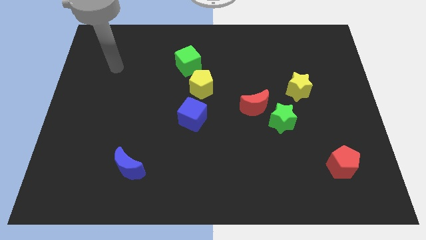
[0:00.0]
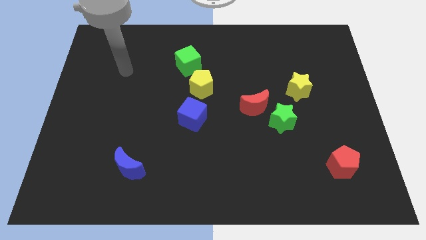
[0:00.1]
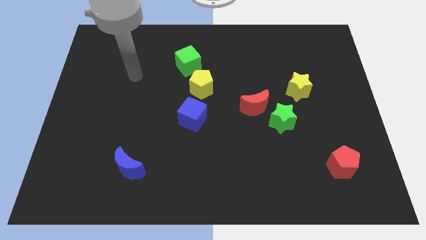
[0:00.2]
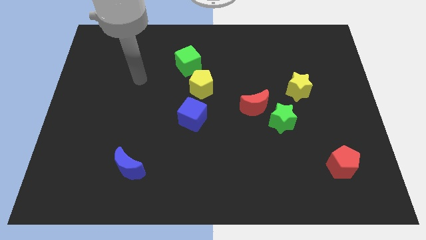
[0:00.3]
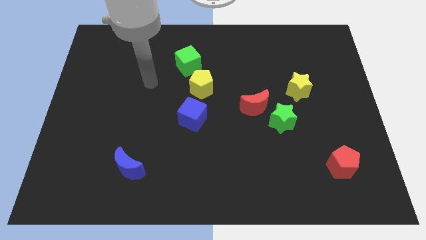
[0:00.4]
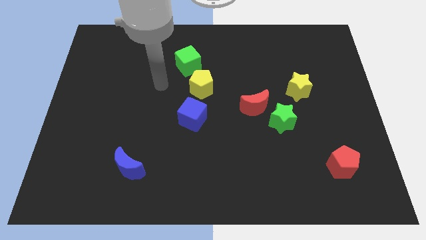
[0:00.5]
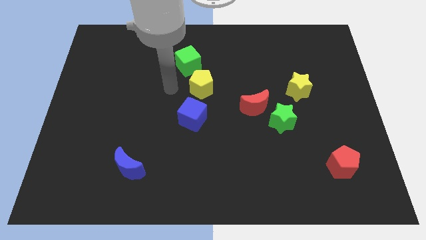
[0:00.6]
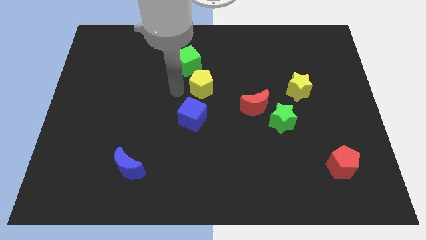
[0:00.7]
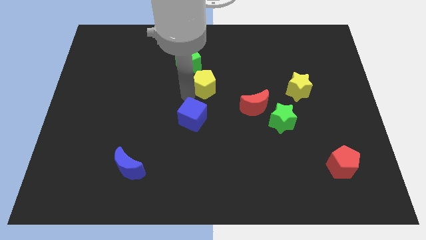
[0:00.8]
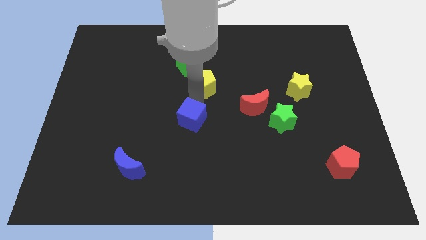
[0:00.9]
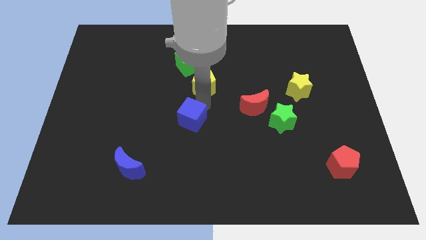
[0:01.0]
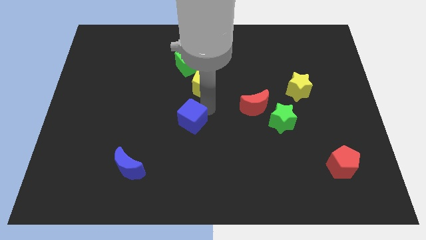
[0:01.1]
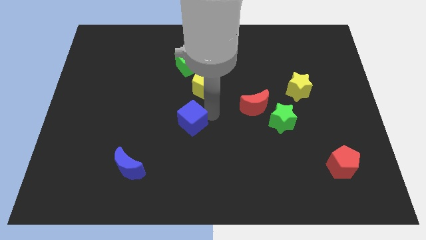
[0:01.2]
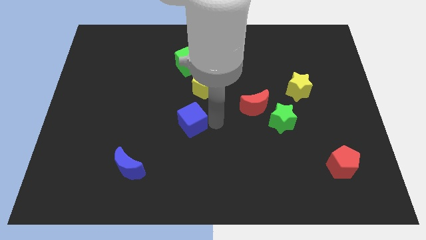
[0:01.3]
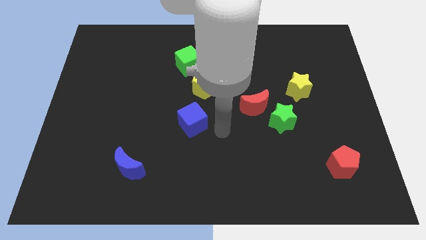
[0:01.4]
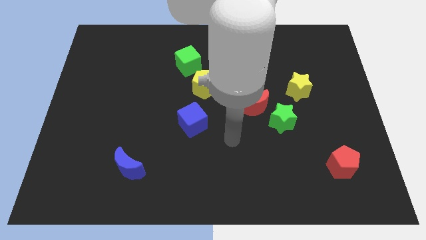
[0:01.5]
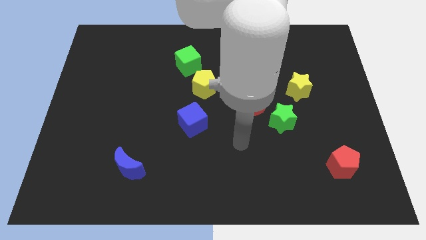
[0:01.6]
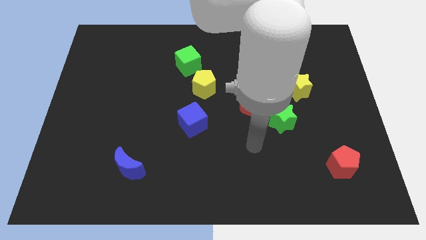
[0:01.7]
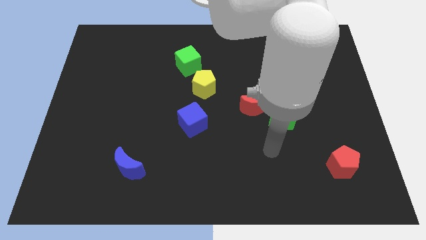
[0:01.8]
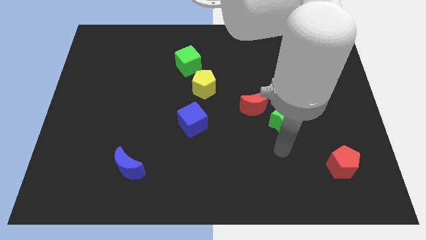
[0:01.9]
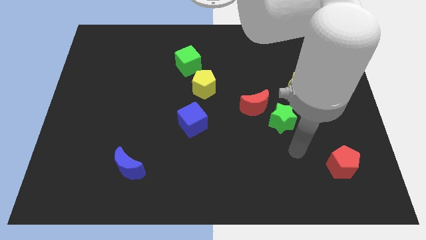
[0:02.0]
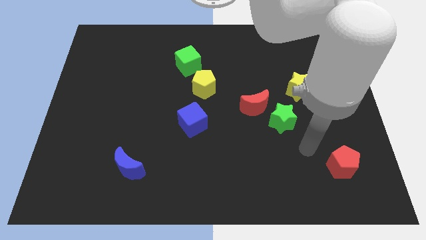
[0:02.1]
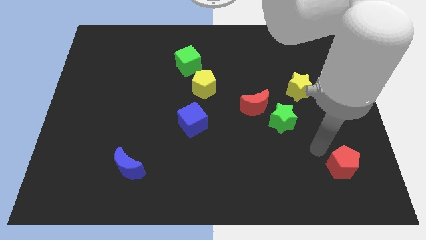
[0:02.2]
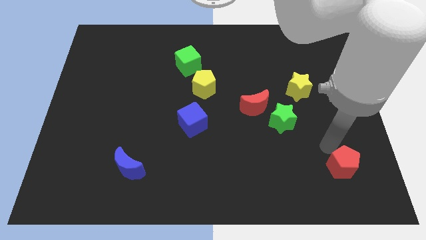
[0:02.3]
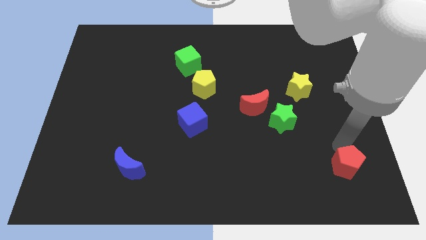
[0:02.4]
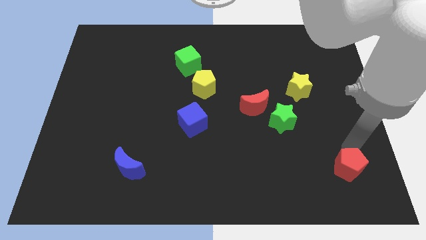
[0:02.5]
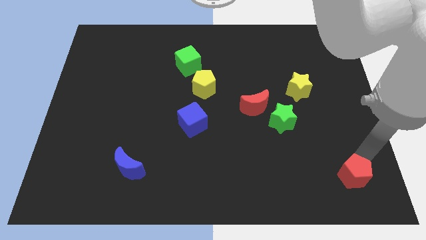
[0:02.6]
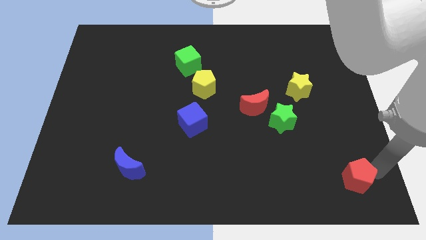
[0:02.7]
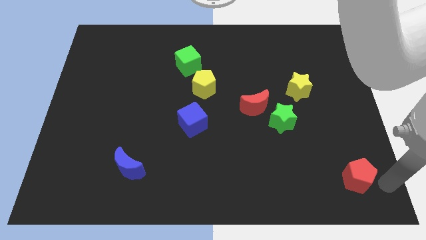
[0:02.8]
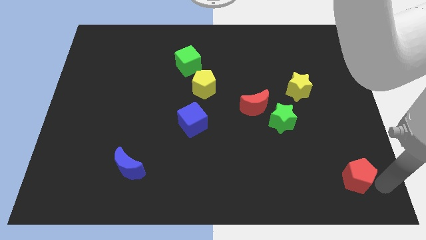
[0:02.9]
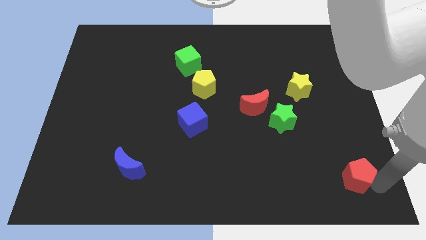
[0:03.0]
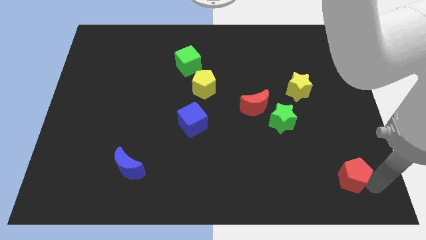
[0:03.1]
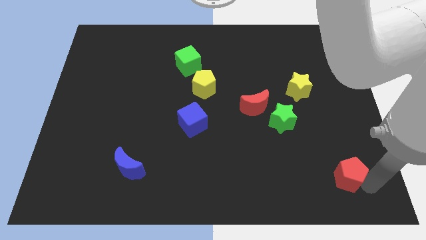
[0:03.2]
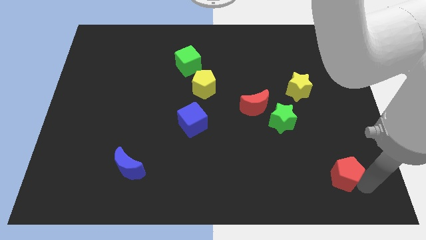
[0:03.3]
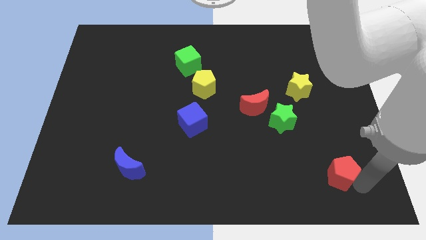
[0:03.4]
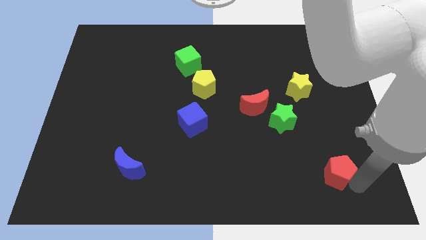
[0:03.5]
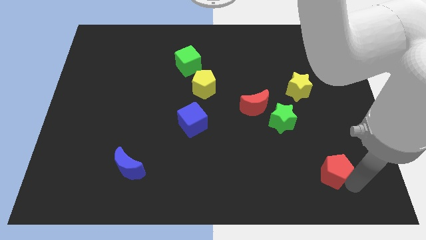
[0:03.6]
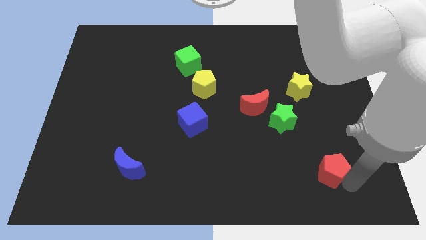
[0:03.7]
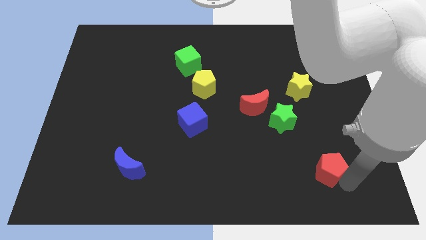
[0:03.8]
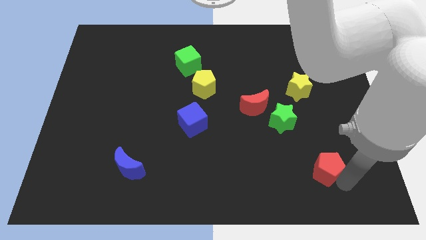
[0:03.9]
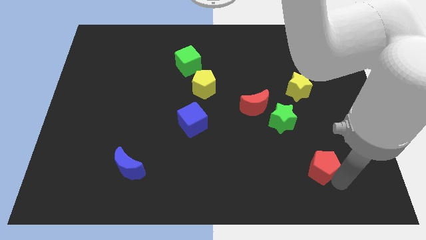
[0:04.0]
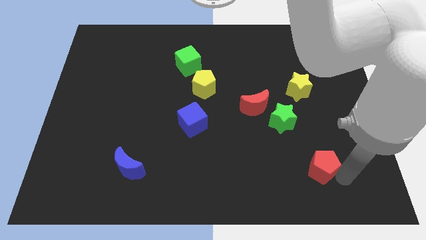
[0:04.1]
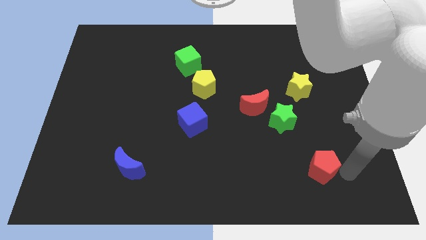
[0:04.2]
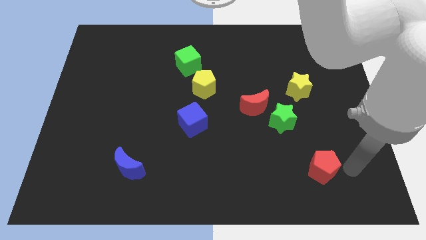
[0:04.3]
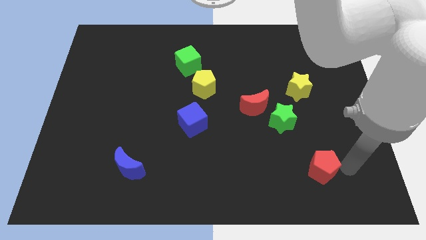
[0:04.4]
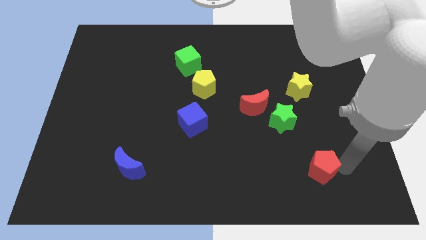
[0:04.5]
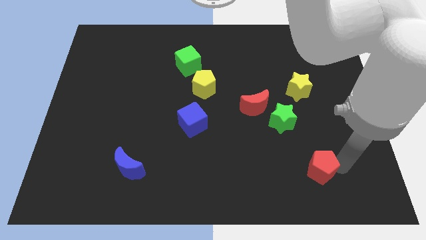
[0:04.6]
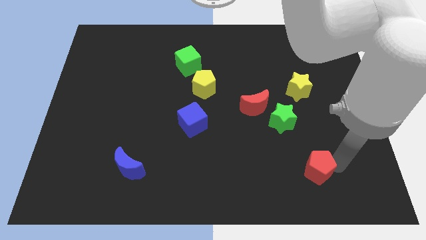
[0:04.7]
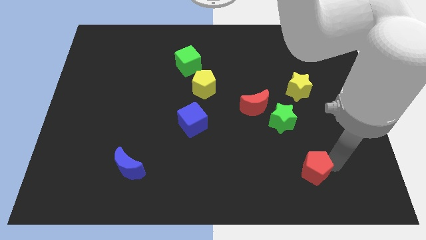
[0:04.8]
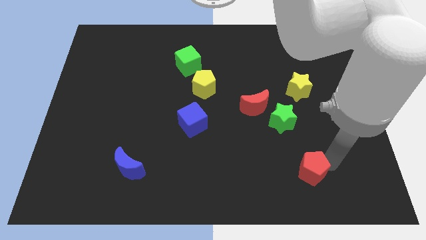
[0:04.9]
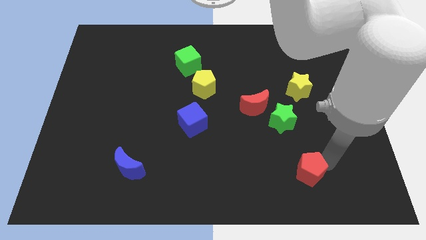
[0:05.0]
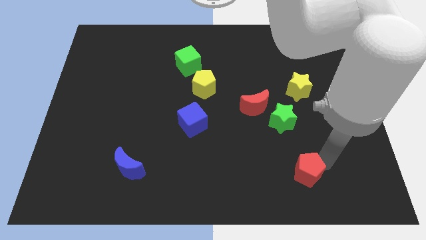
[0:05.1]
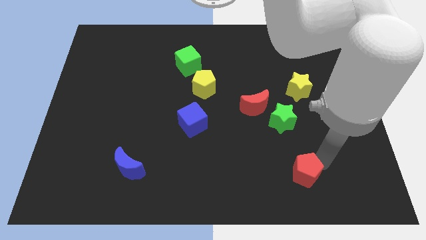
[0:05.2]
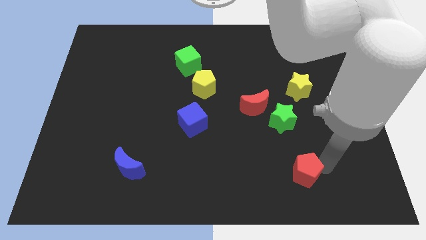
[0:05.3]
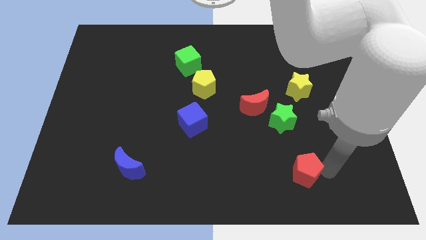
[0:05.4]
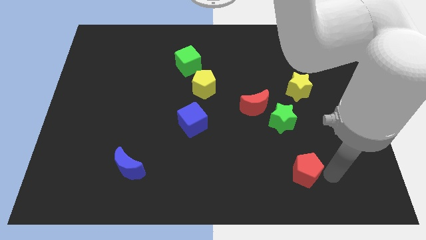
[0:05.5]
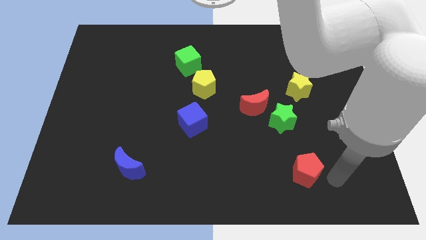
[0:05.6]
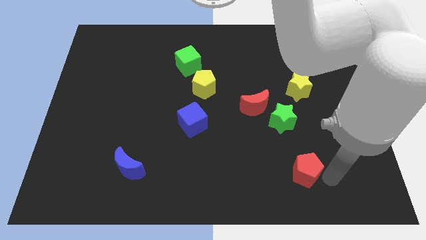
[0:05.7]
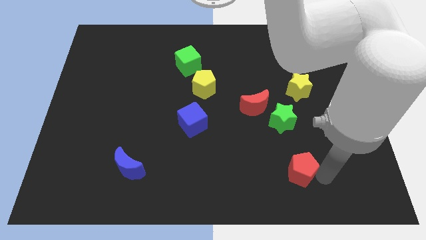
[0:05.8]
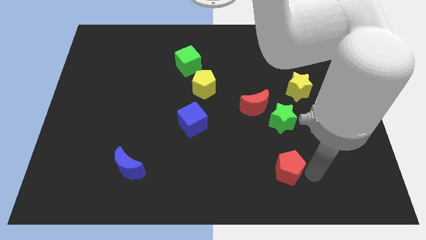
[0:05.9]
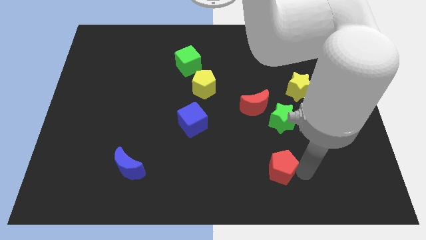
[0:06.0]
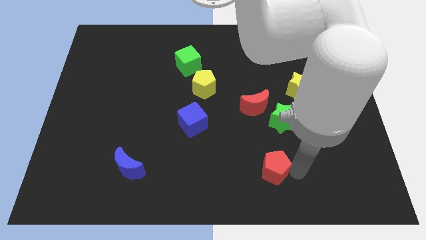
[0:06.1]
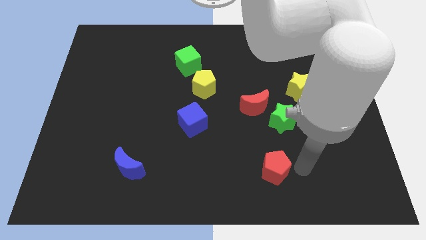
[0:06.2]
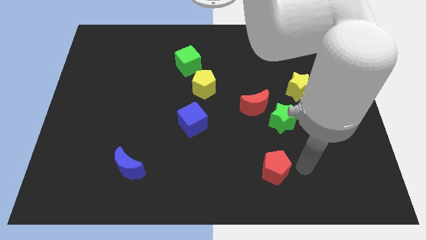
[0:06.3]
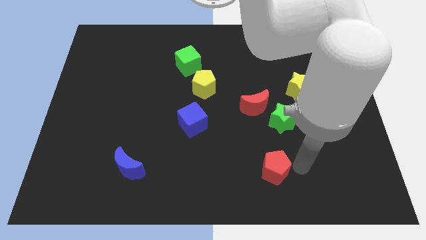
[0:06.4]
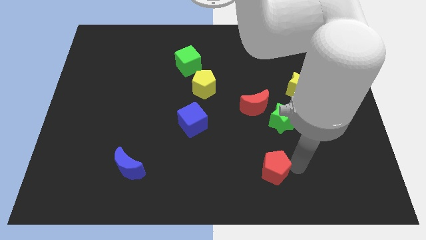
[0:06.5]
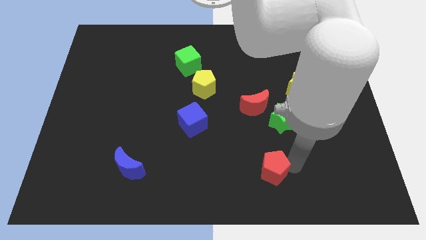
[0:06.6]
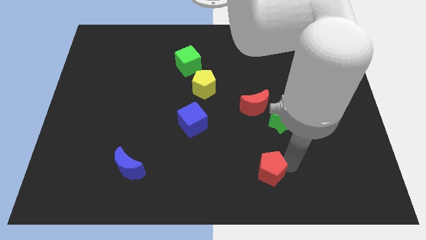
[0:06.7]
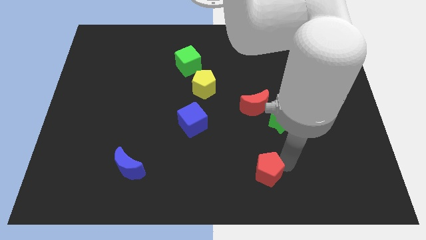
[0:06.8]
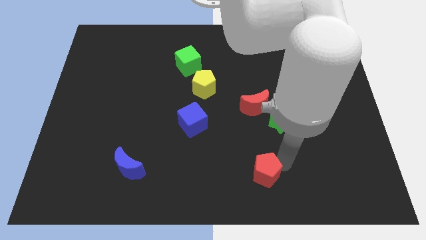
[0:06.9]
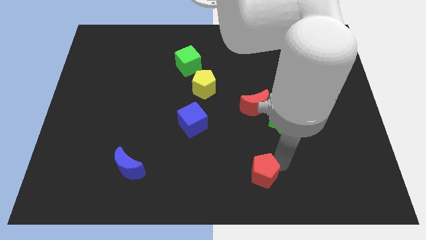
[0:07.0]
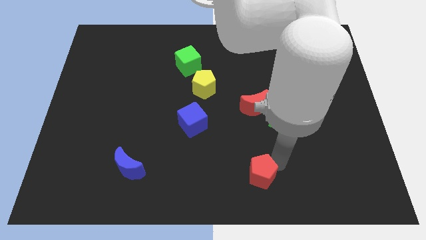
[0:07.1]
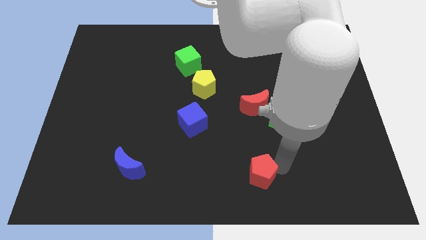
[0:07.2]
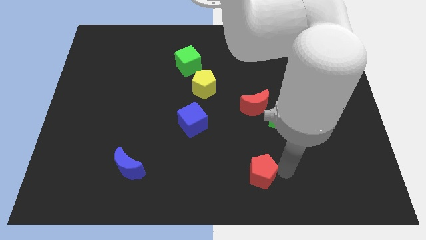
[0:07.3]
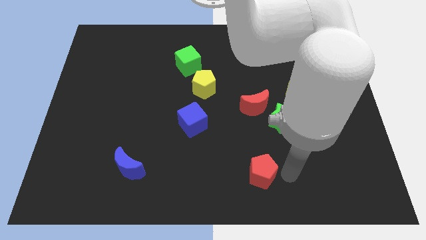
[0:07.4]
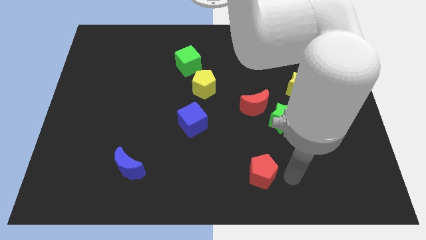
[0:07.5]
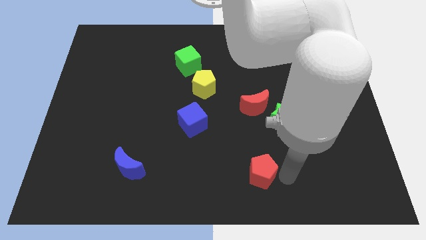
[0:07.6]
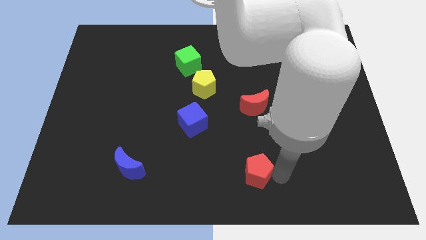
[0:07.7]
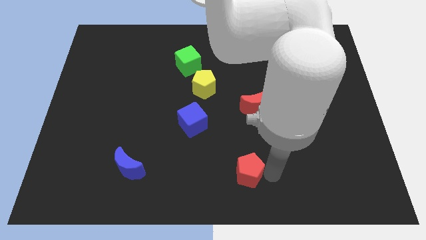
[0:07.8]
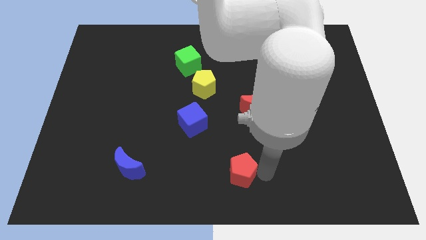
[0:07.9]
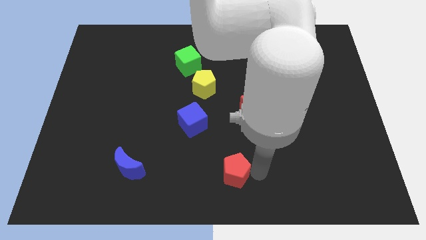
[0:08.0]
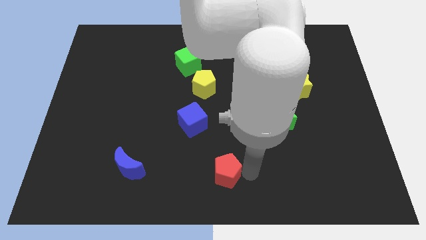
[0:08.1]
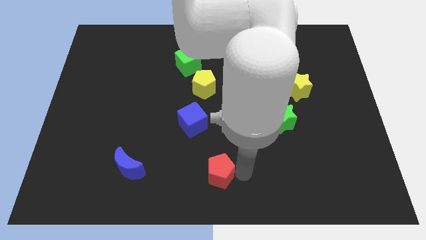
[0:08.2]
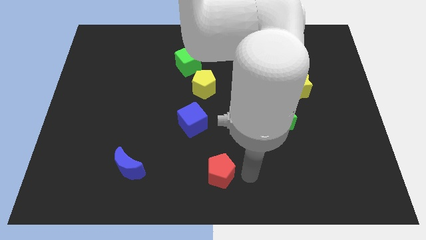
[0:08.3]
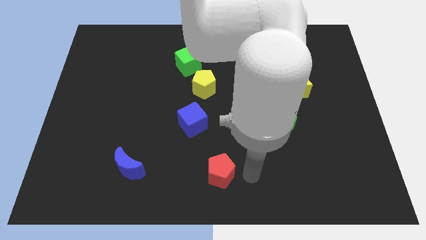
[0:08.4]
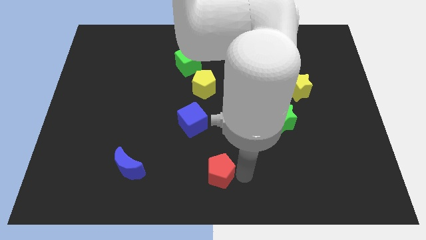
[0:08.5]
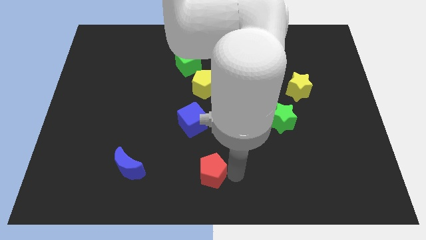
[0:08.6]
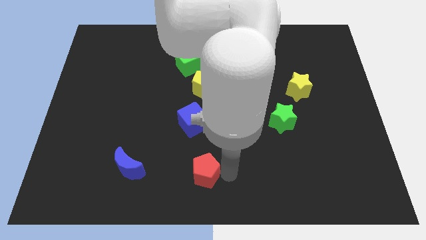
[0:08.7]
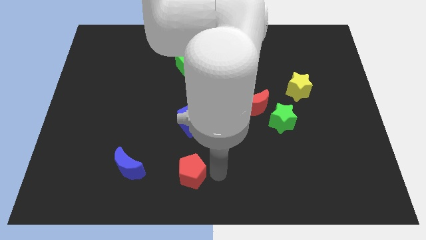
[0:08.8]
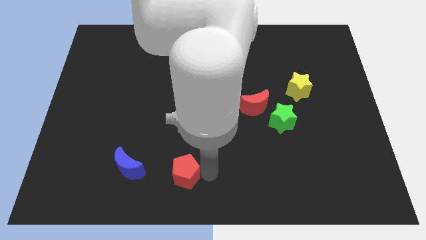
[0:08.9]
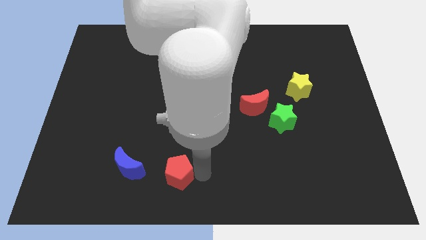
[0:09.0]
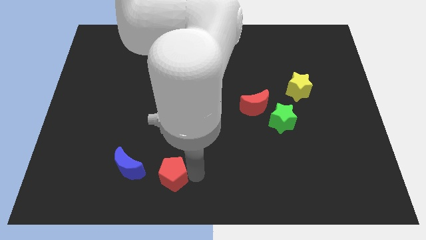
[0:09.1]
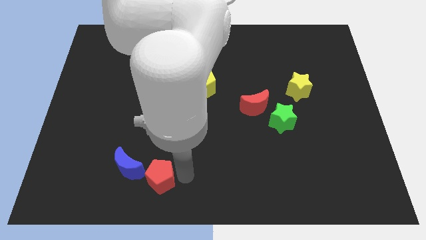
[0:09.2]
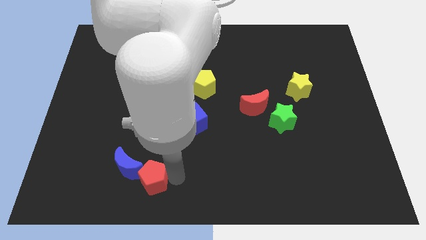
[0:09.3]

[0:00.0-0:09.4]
slide the red pentagon next to the blue moon
